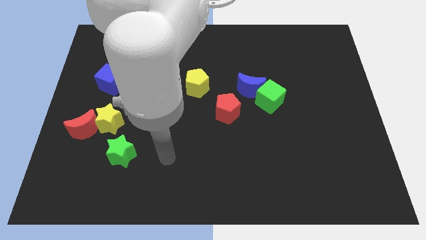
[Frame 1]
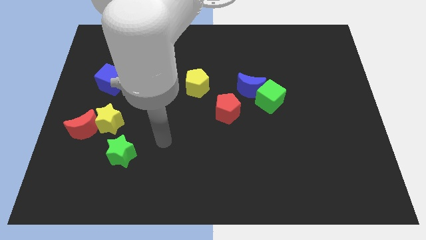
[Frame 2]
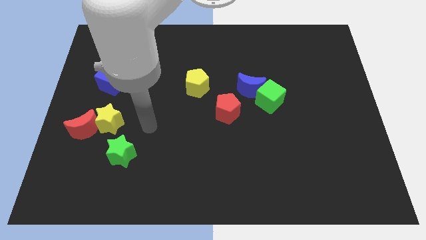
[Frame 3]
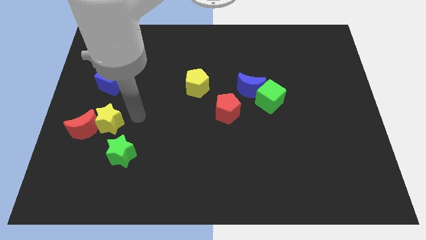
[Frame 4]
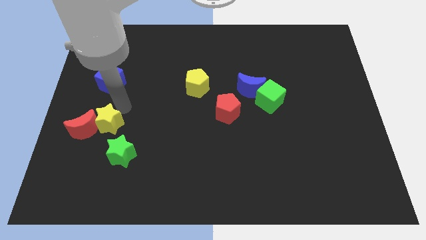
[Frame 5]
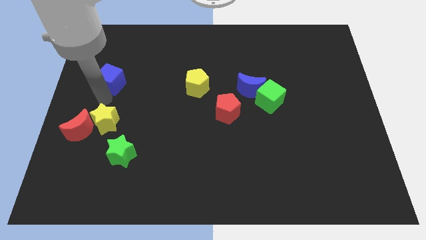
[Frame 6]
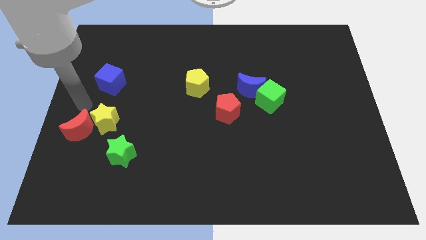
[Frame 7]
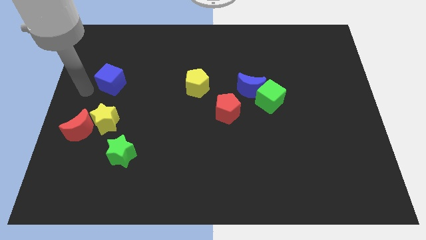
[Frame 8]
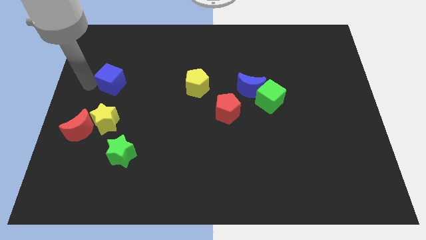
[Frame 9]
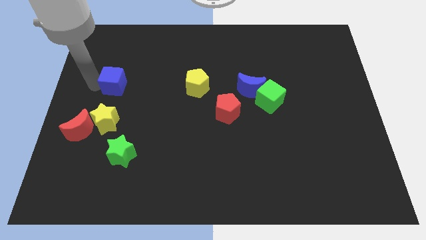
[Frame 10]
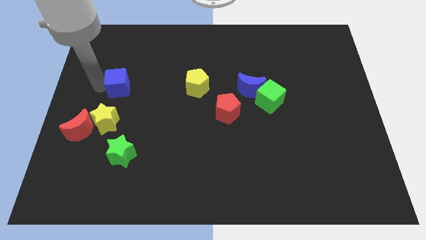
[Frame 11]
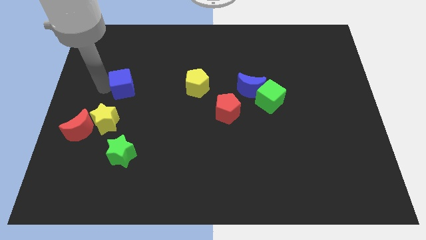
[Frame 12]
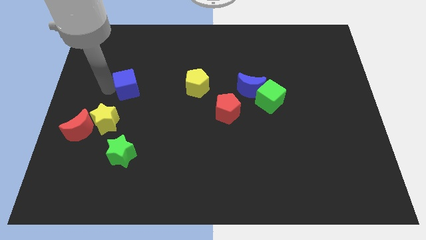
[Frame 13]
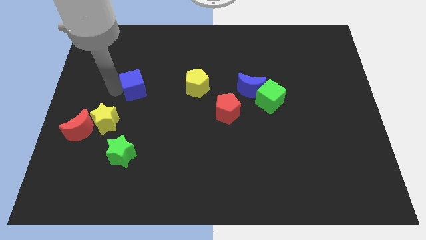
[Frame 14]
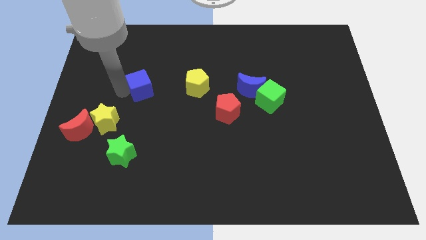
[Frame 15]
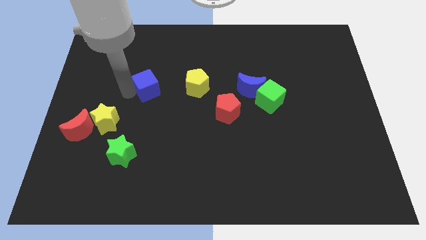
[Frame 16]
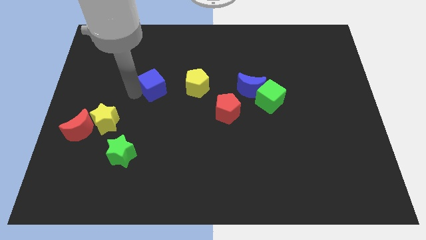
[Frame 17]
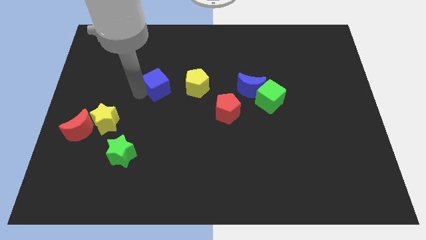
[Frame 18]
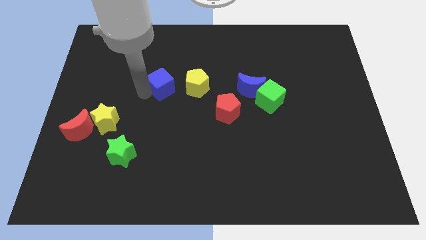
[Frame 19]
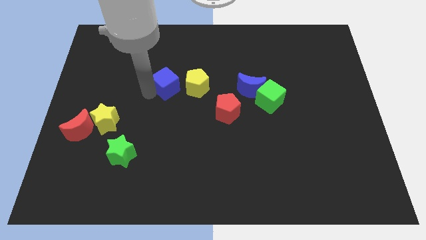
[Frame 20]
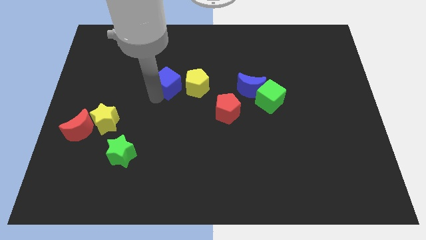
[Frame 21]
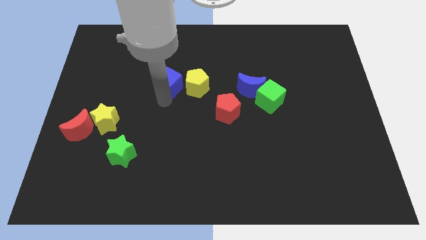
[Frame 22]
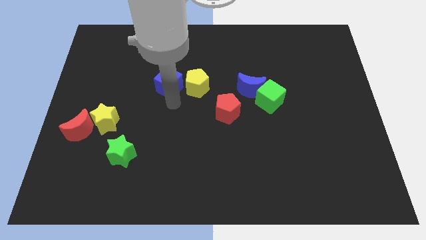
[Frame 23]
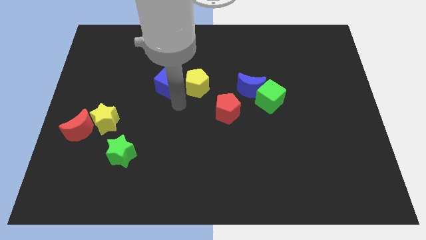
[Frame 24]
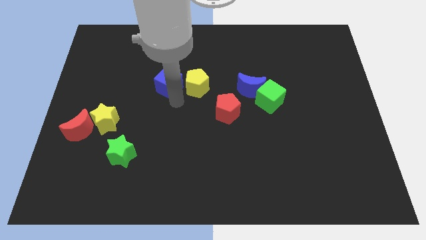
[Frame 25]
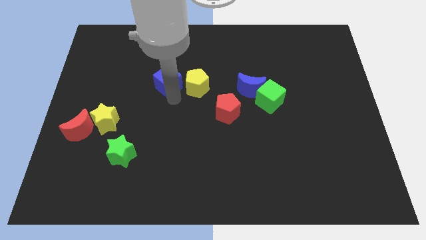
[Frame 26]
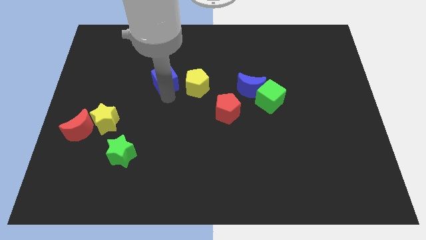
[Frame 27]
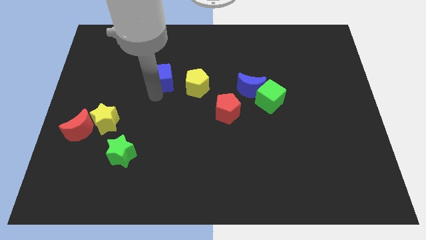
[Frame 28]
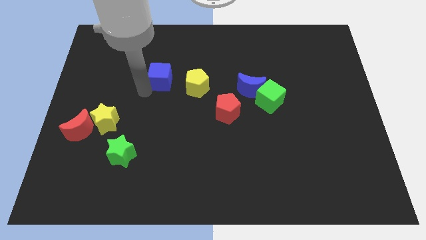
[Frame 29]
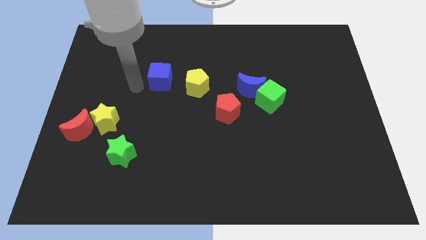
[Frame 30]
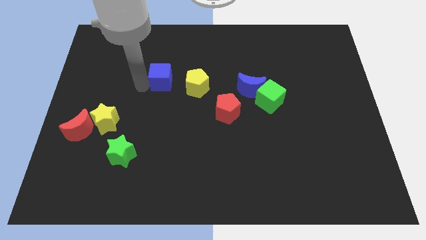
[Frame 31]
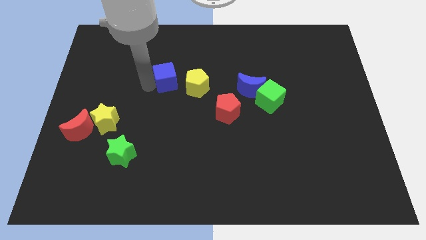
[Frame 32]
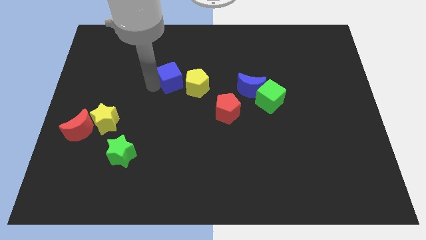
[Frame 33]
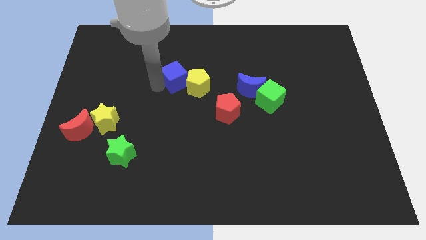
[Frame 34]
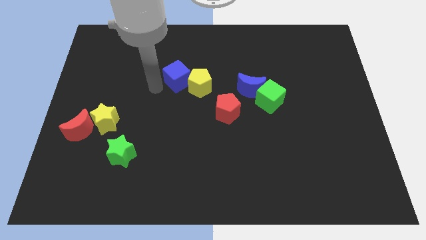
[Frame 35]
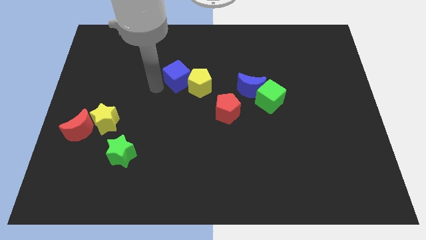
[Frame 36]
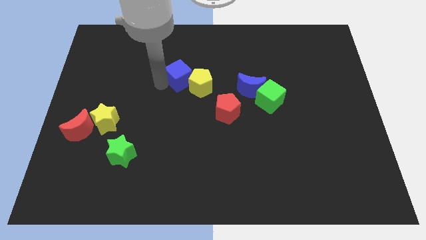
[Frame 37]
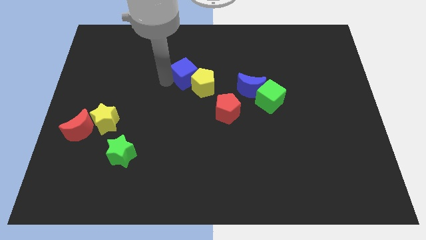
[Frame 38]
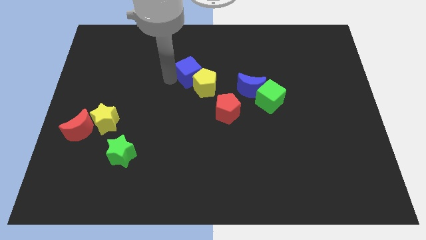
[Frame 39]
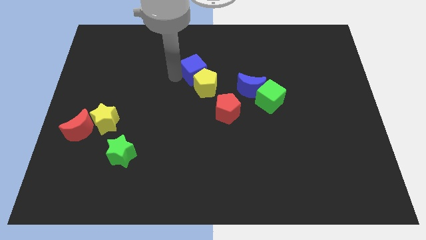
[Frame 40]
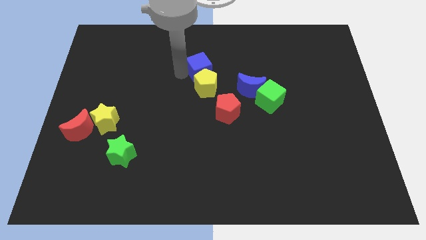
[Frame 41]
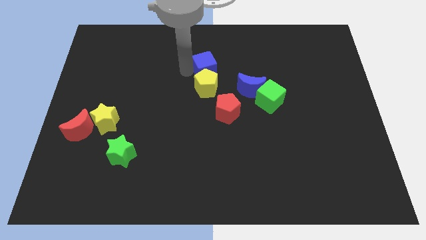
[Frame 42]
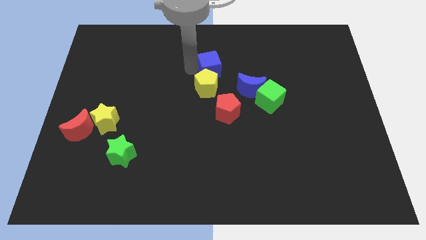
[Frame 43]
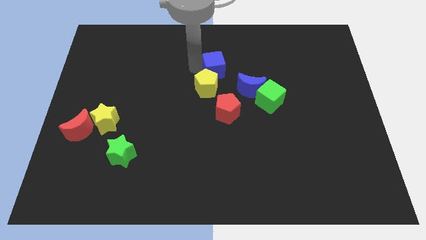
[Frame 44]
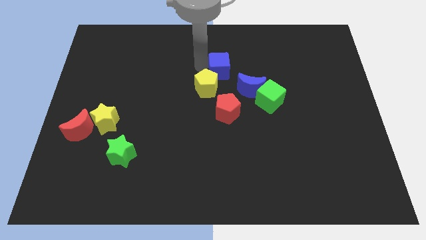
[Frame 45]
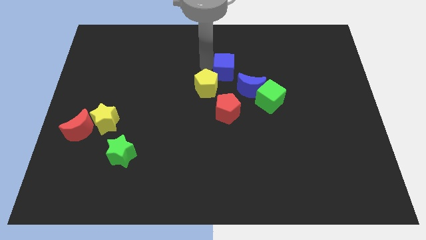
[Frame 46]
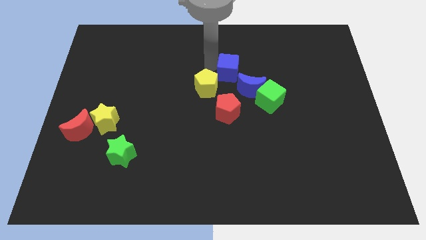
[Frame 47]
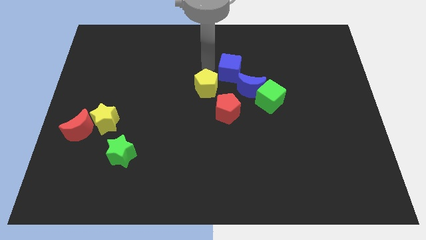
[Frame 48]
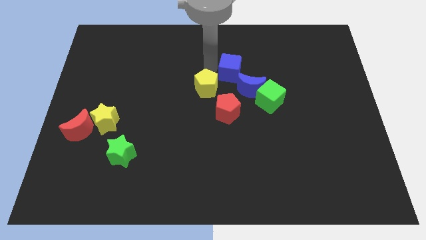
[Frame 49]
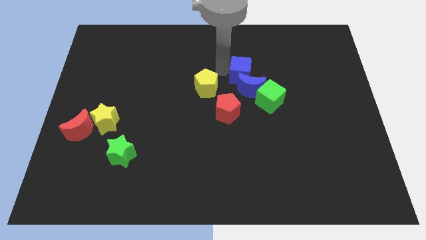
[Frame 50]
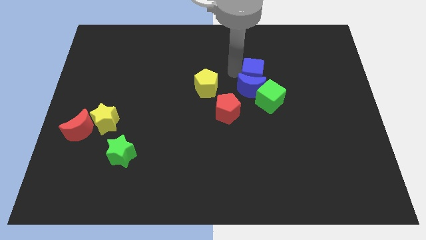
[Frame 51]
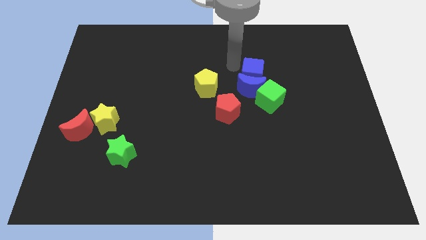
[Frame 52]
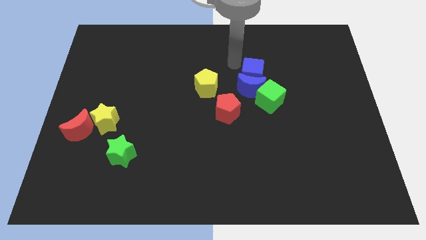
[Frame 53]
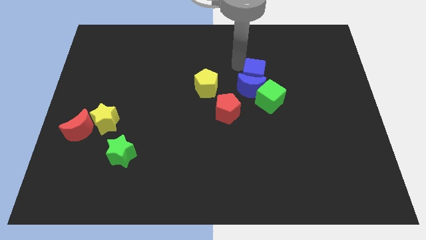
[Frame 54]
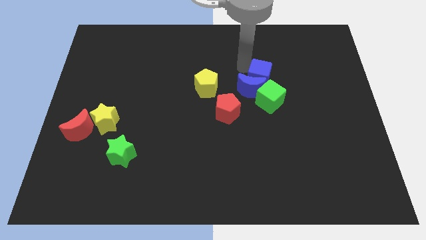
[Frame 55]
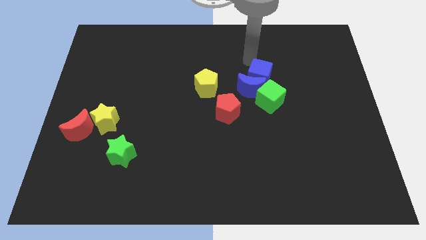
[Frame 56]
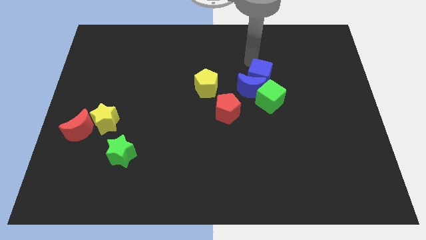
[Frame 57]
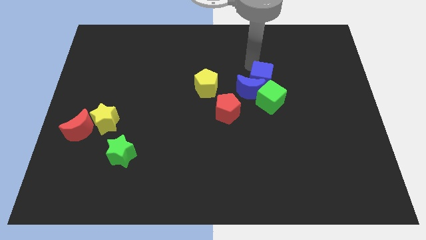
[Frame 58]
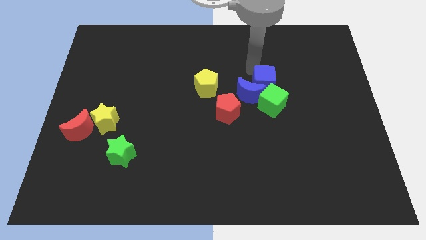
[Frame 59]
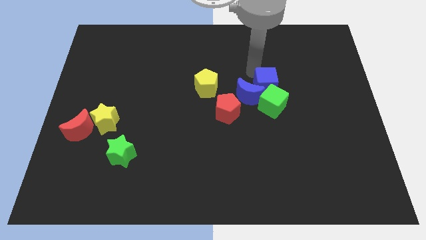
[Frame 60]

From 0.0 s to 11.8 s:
slide the blue cube next to the green cube

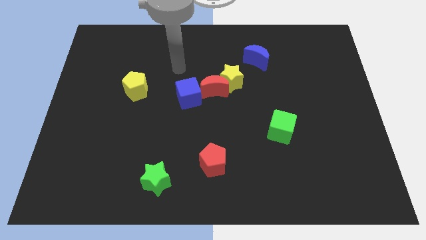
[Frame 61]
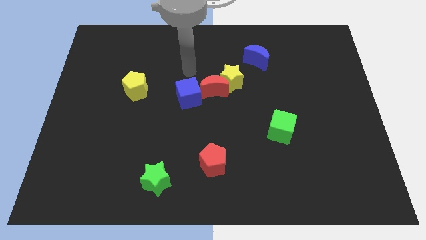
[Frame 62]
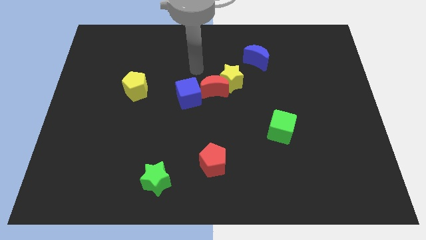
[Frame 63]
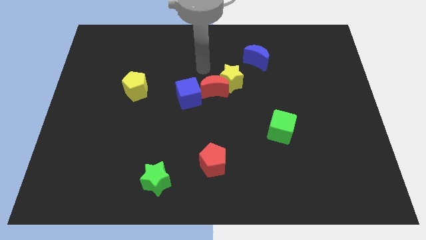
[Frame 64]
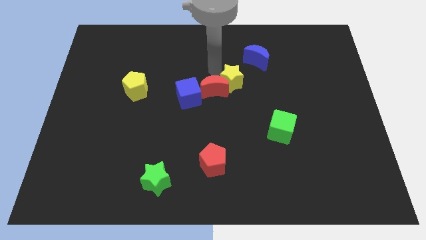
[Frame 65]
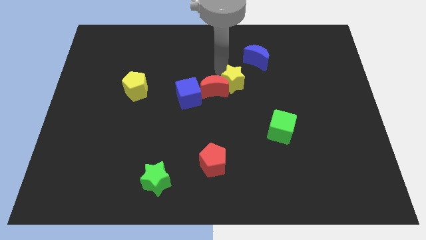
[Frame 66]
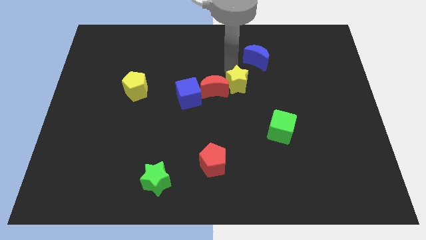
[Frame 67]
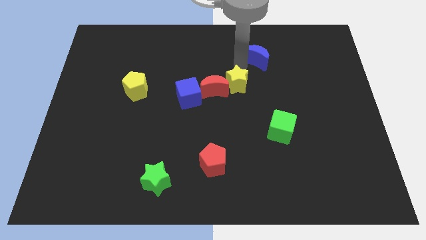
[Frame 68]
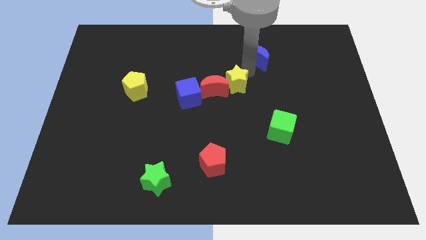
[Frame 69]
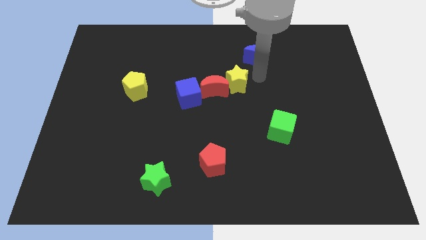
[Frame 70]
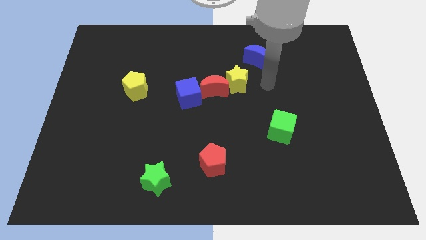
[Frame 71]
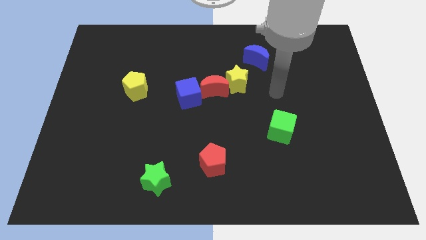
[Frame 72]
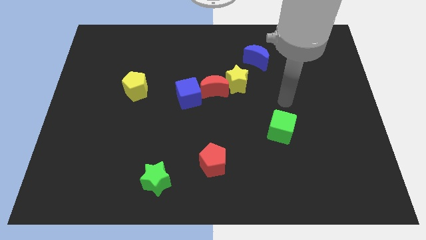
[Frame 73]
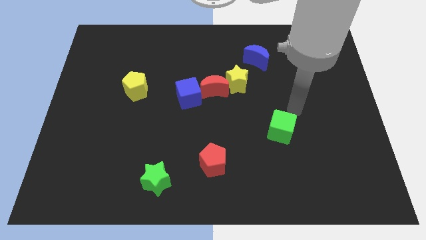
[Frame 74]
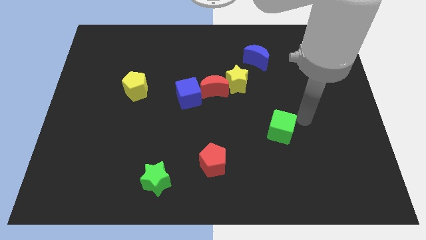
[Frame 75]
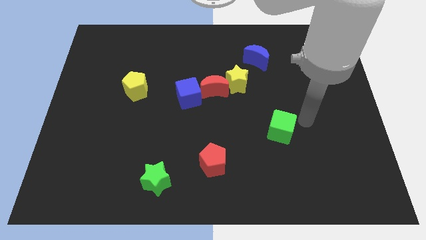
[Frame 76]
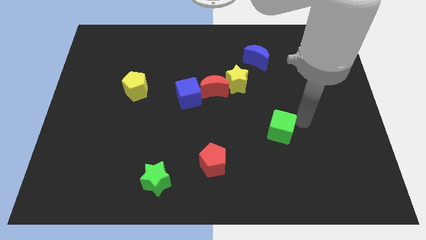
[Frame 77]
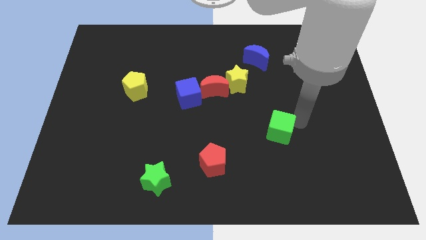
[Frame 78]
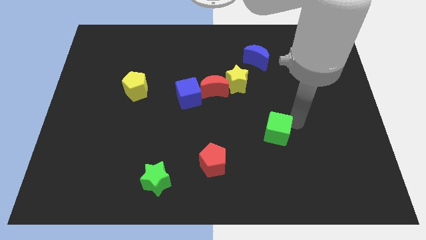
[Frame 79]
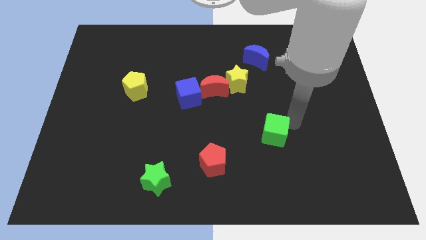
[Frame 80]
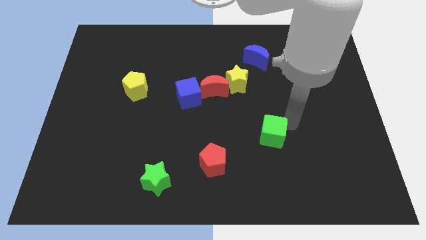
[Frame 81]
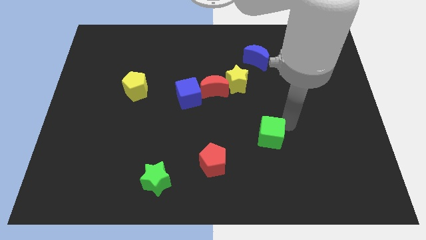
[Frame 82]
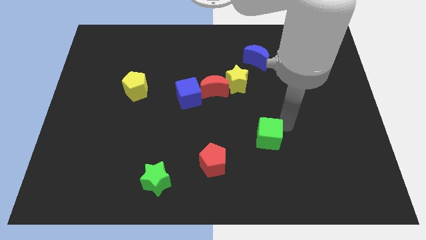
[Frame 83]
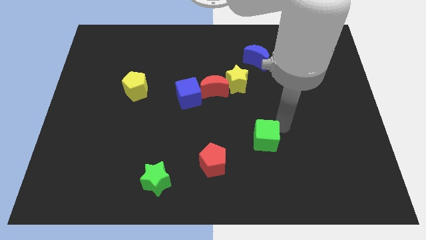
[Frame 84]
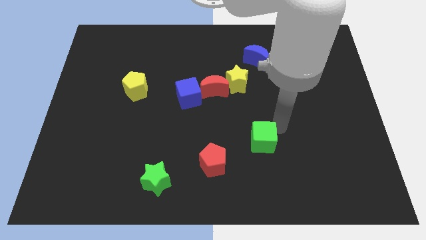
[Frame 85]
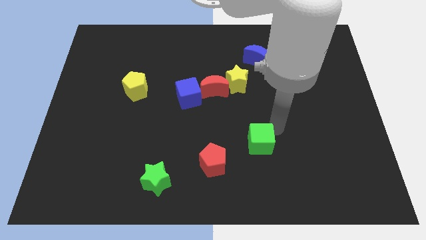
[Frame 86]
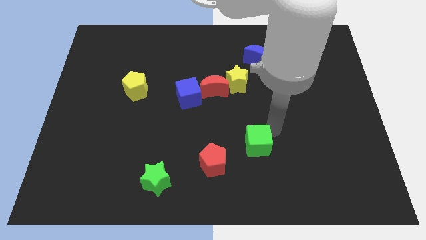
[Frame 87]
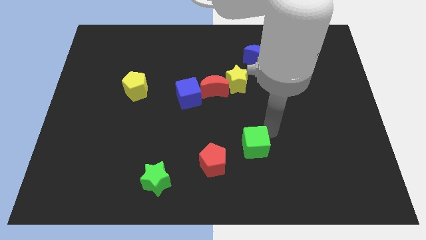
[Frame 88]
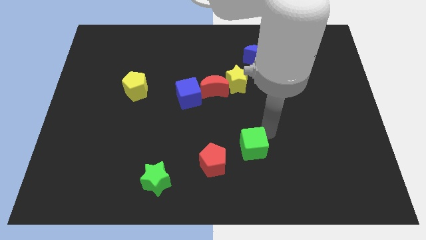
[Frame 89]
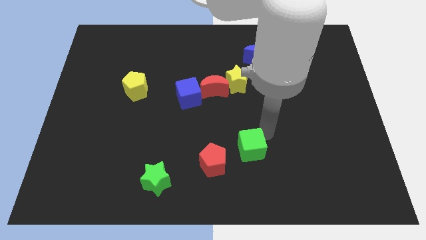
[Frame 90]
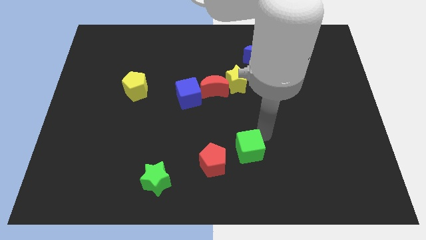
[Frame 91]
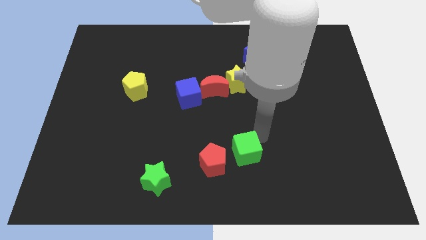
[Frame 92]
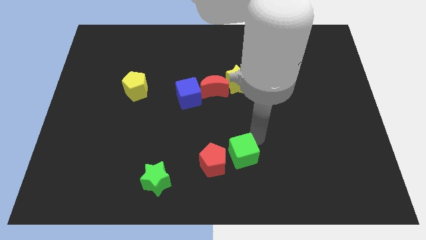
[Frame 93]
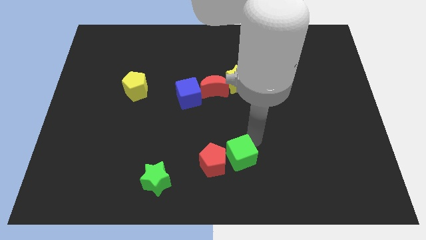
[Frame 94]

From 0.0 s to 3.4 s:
push the green cube towards the red pentagon
